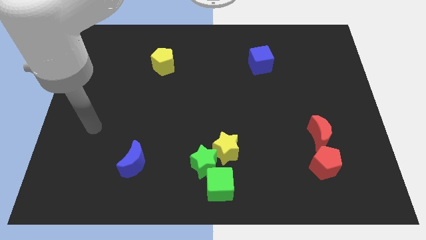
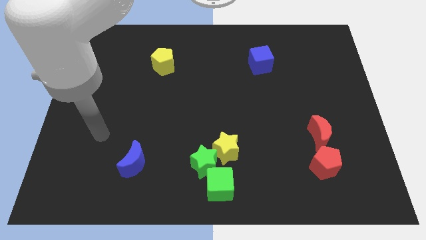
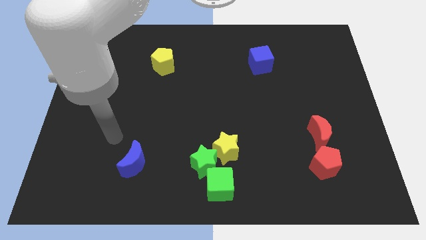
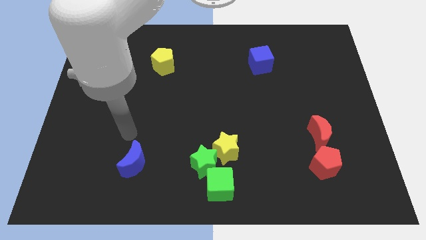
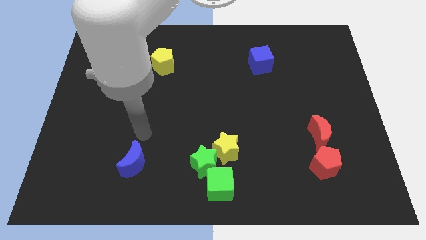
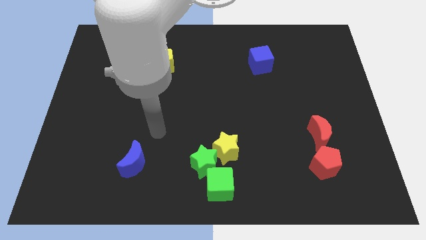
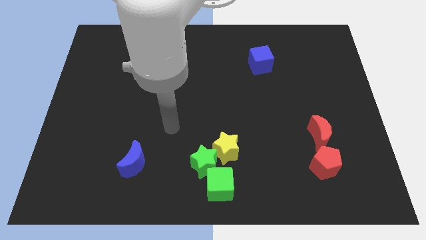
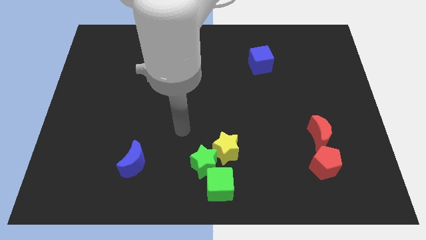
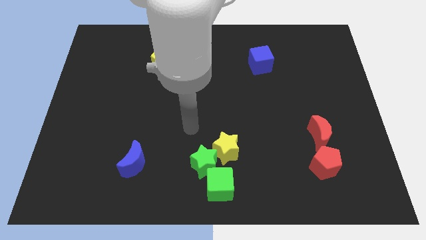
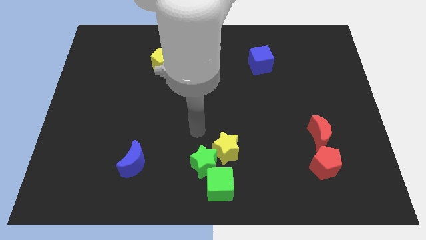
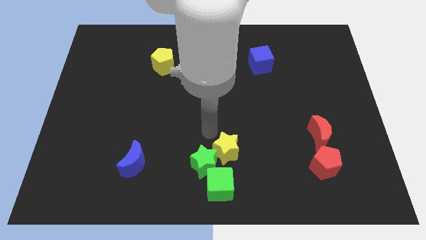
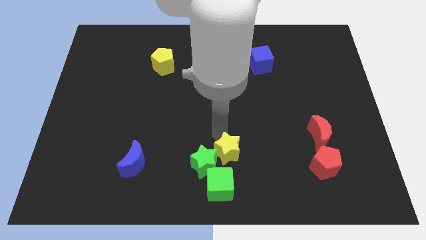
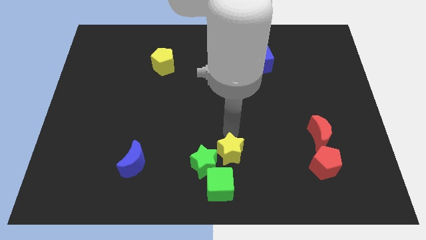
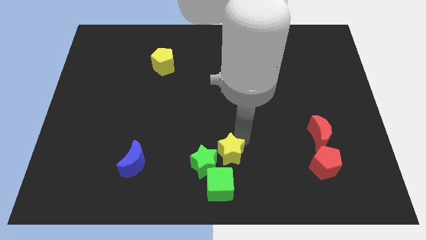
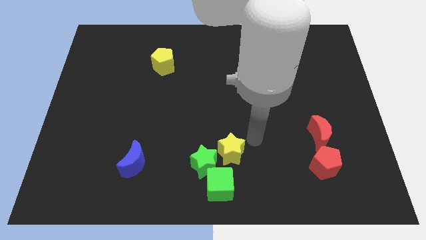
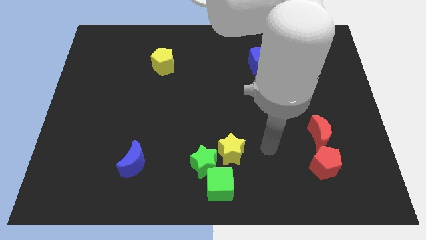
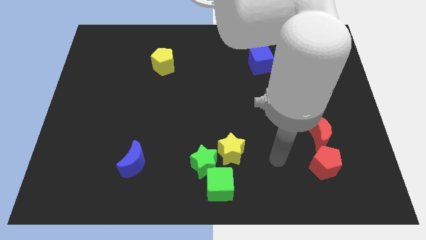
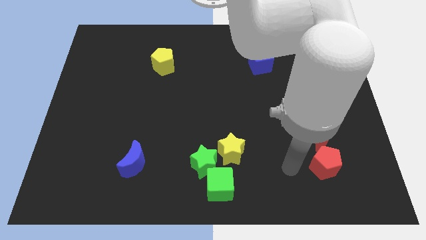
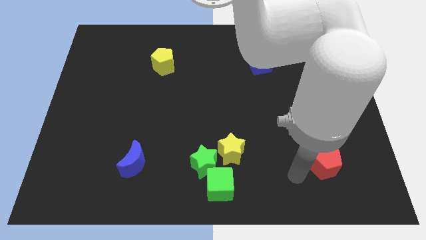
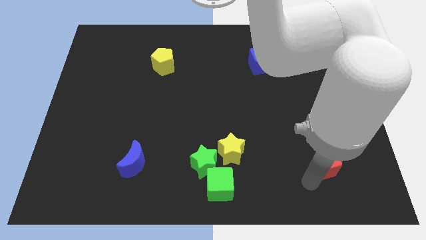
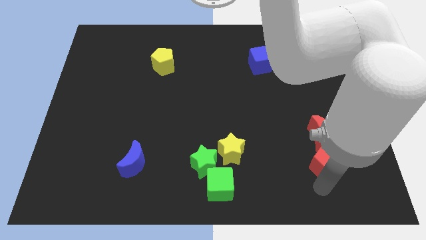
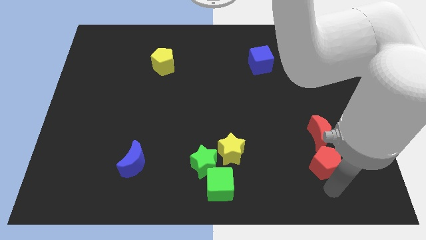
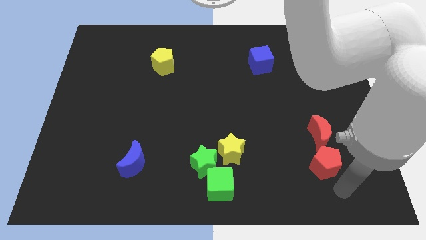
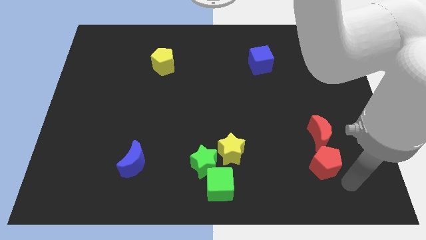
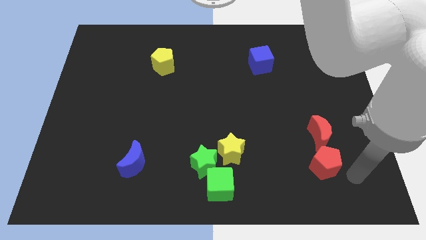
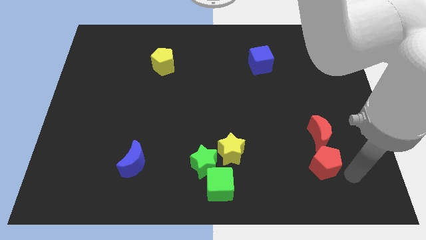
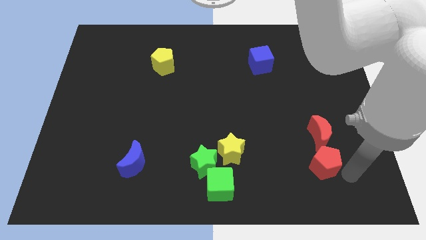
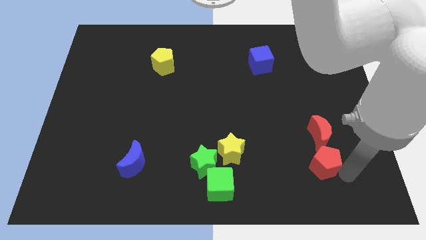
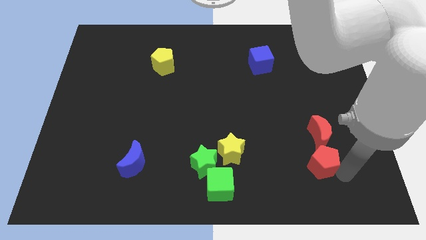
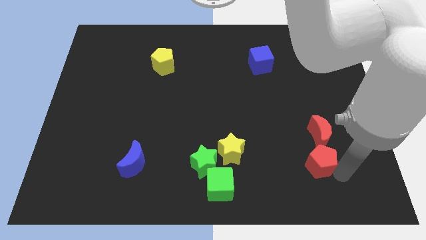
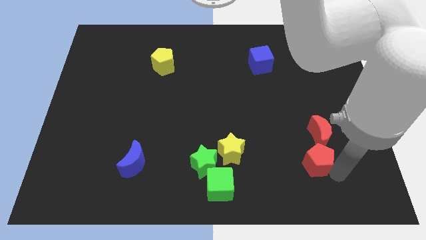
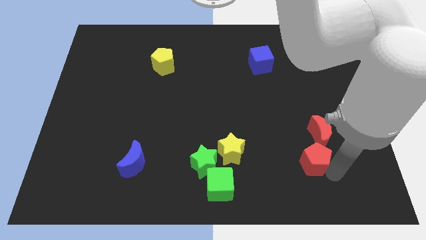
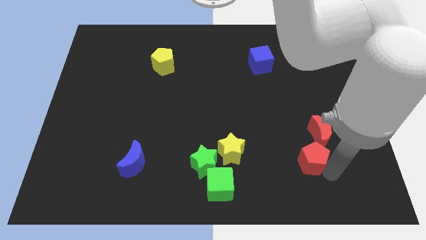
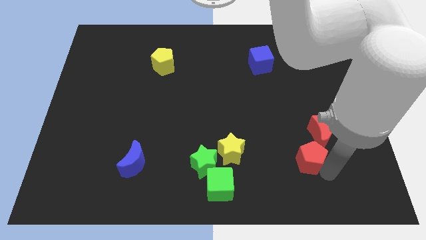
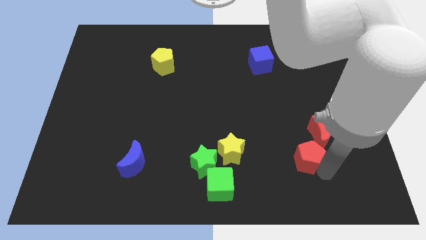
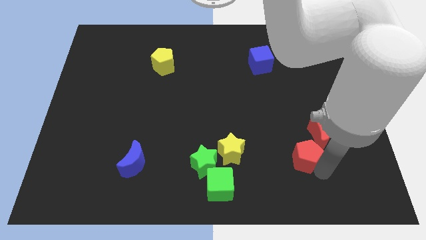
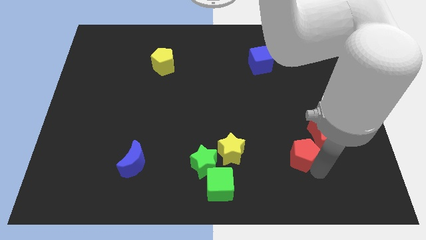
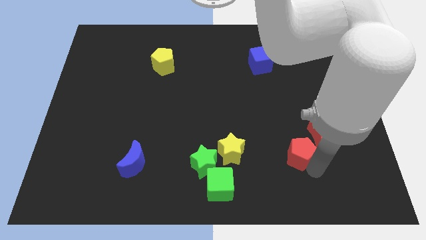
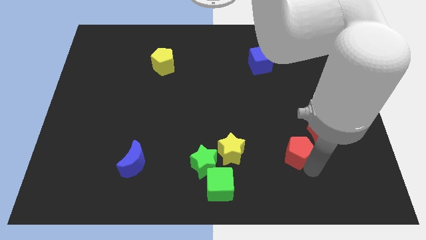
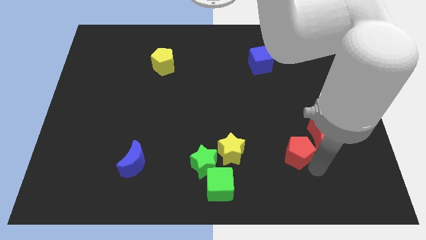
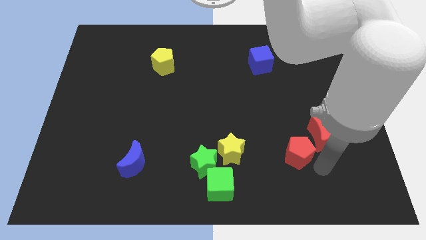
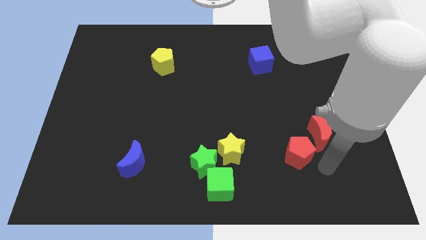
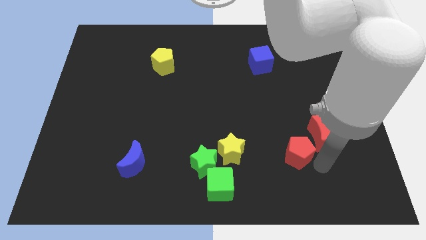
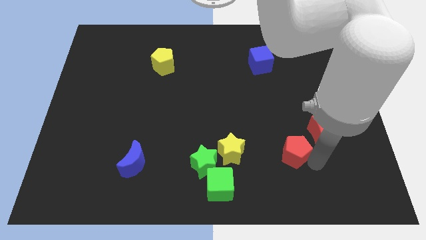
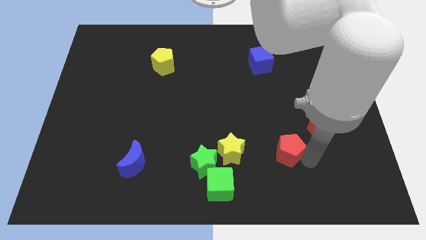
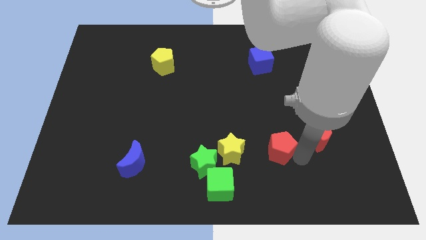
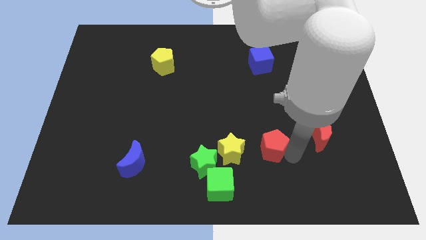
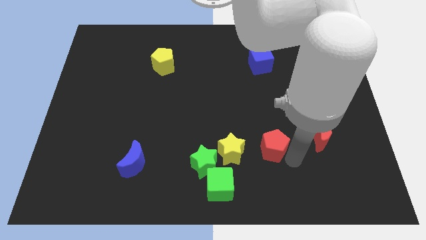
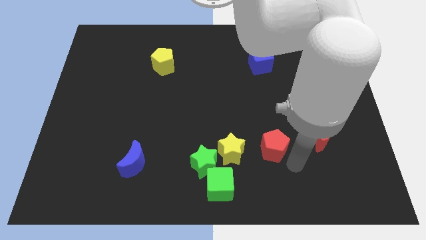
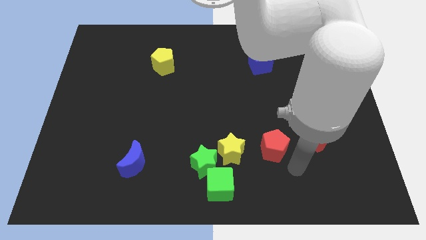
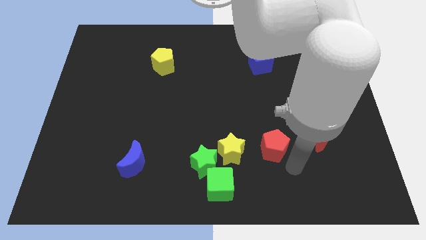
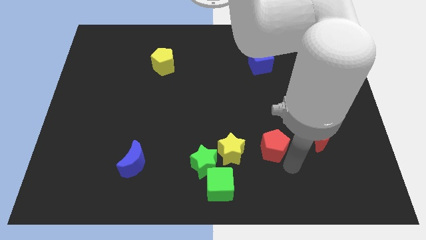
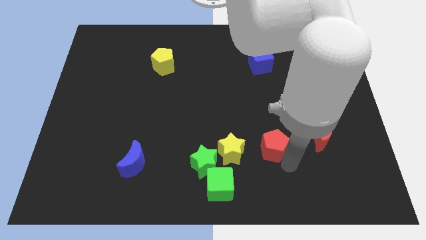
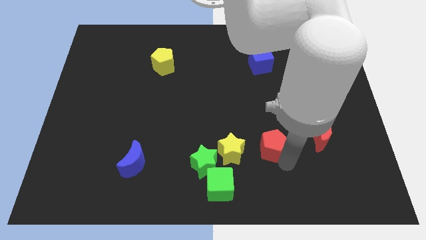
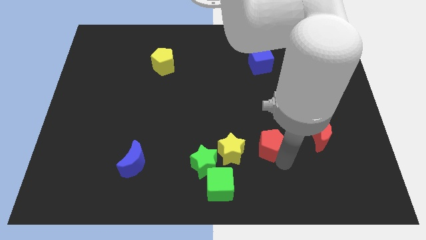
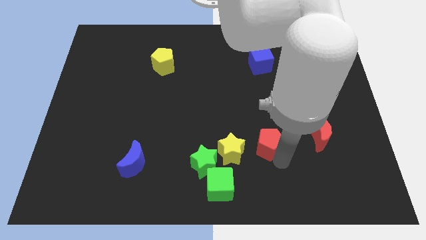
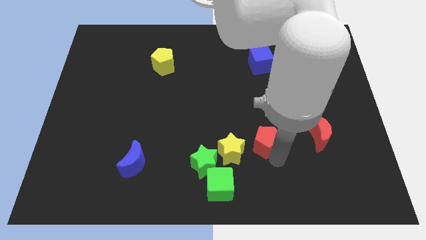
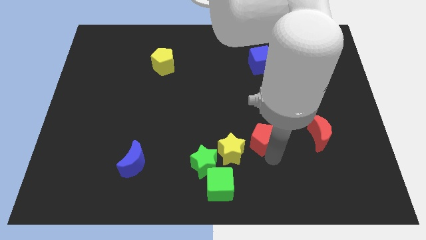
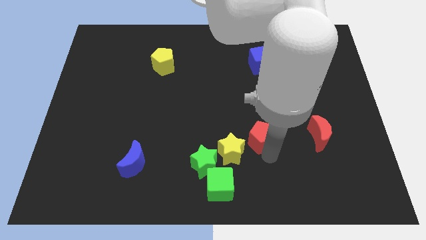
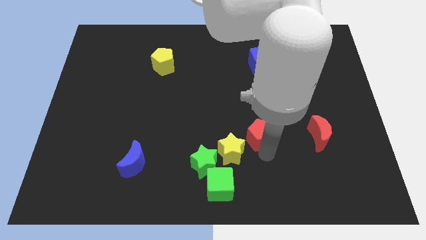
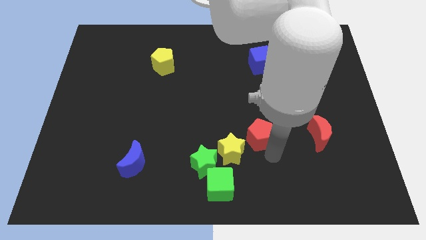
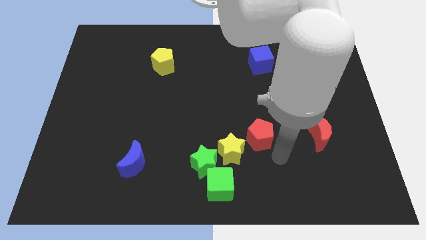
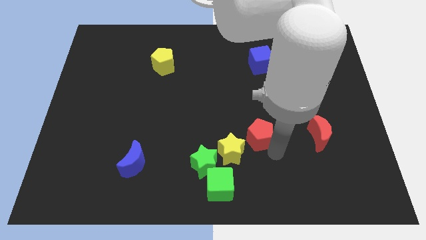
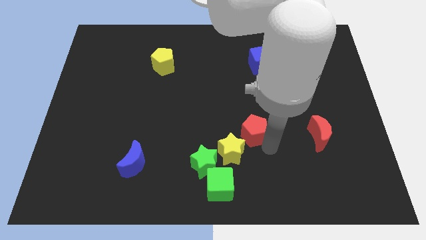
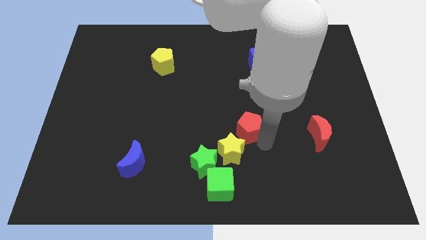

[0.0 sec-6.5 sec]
move the red pentagon to the middle
